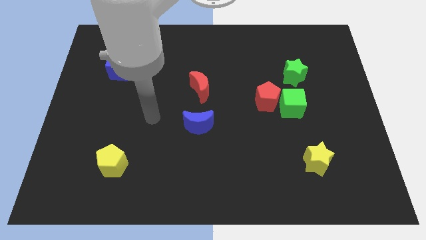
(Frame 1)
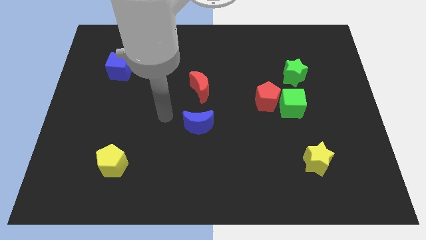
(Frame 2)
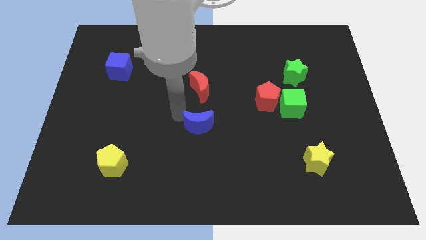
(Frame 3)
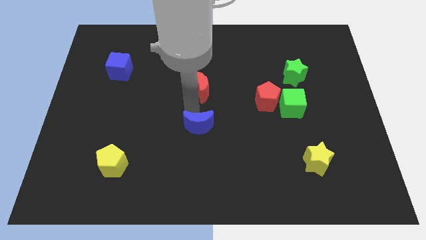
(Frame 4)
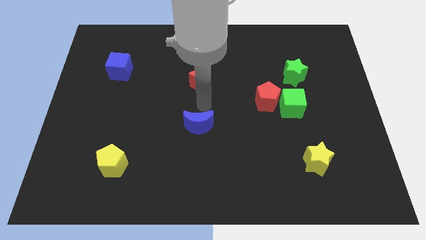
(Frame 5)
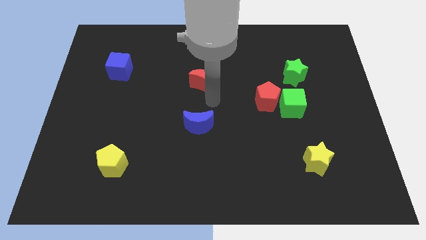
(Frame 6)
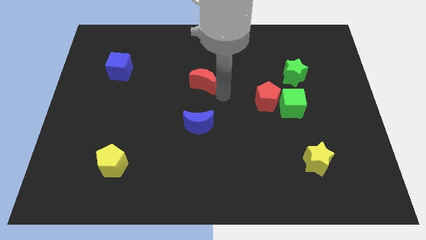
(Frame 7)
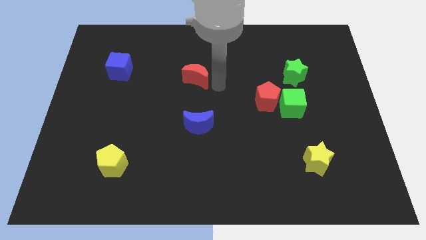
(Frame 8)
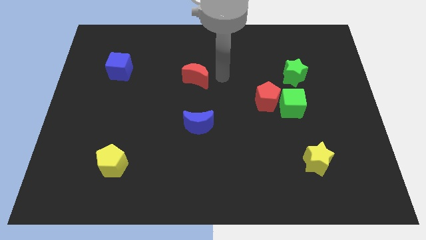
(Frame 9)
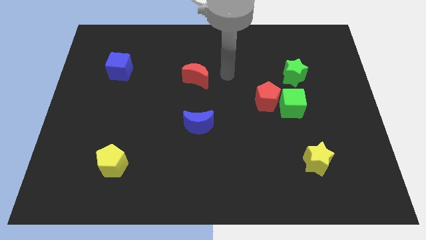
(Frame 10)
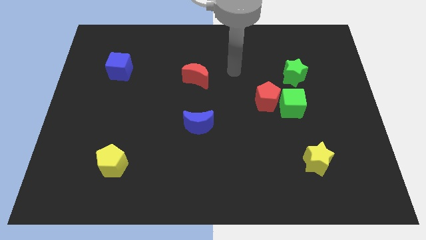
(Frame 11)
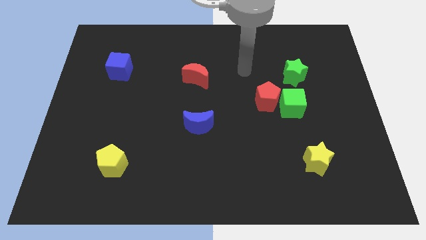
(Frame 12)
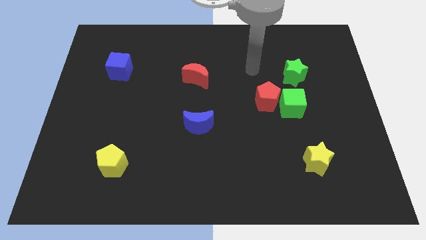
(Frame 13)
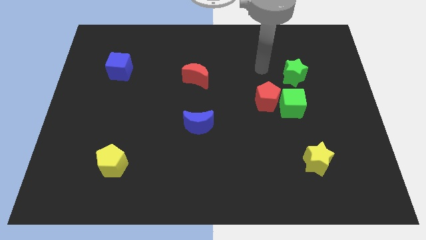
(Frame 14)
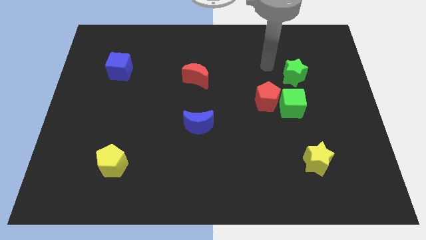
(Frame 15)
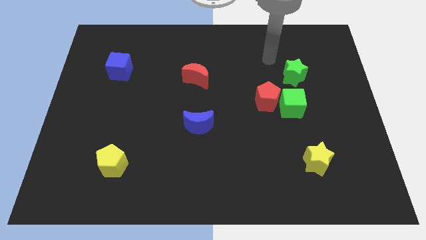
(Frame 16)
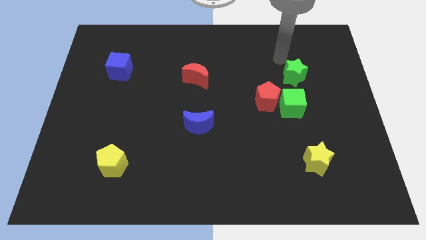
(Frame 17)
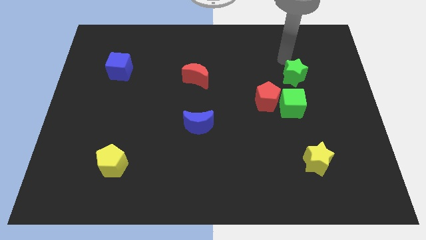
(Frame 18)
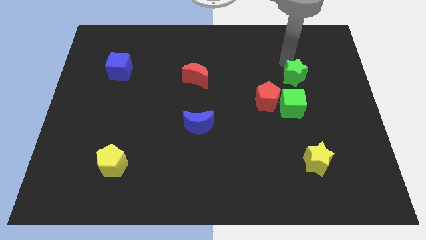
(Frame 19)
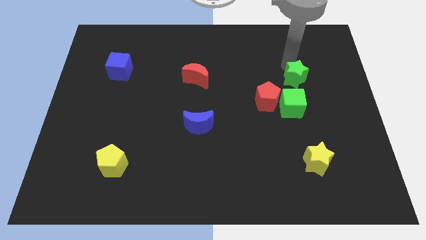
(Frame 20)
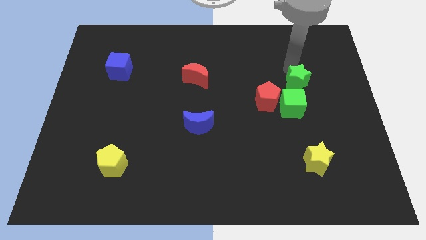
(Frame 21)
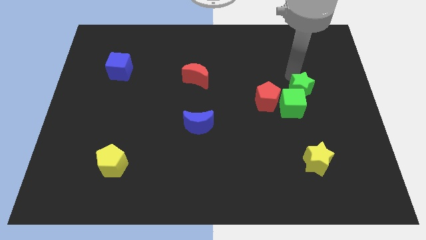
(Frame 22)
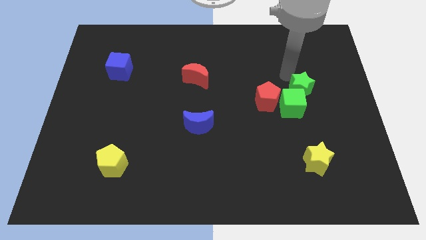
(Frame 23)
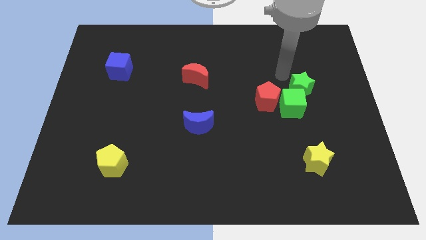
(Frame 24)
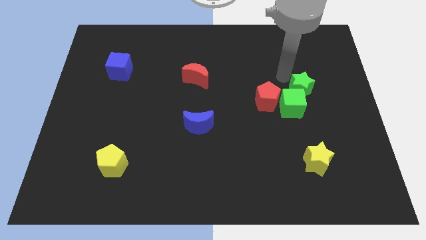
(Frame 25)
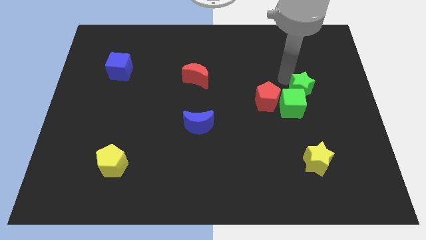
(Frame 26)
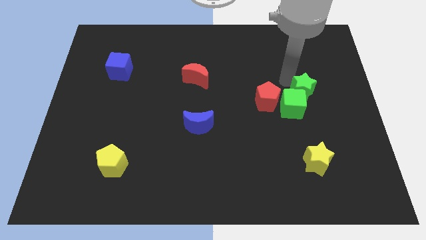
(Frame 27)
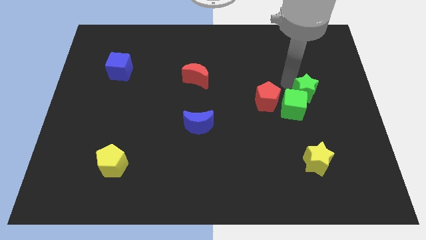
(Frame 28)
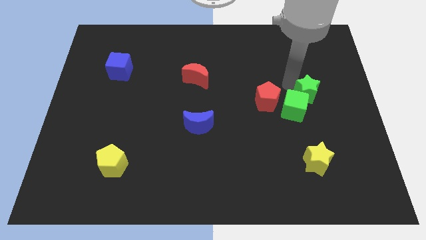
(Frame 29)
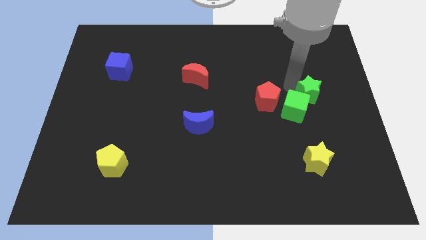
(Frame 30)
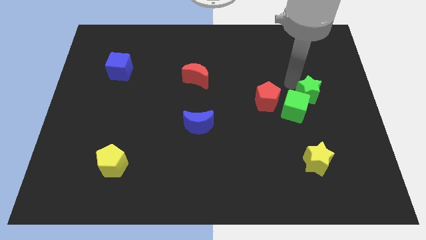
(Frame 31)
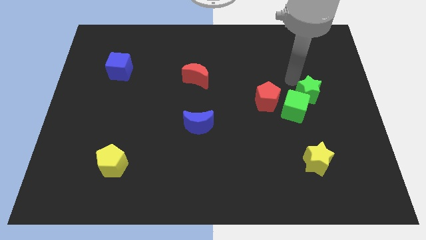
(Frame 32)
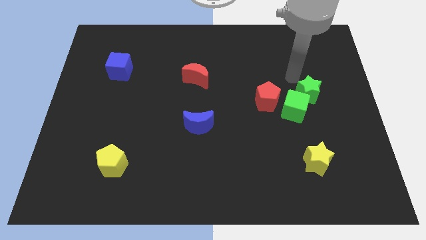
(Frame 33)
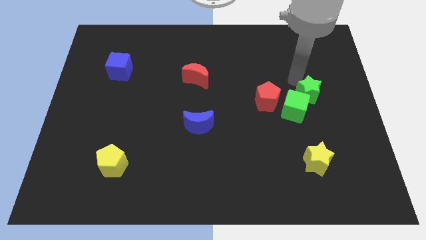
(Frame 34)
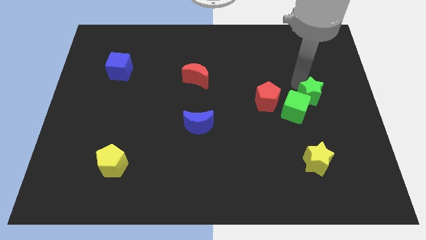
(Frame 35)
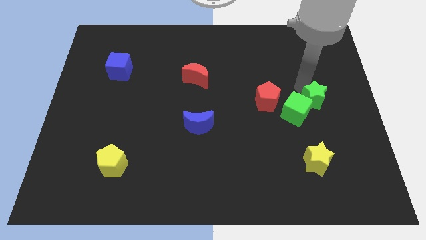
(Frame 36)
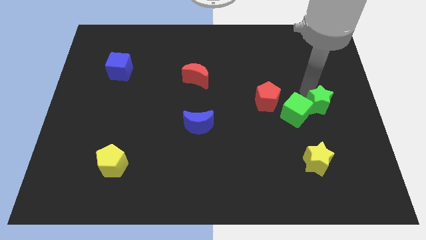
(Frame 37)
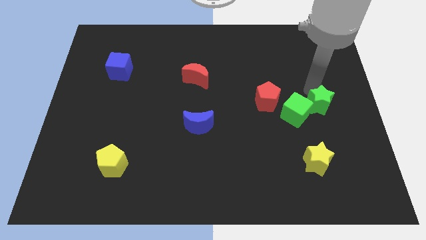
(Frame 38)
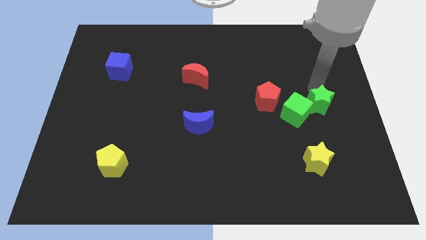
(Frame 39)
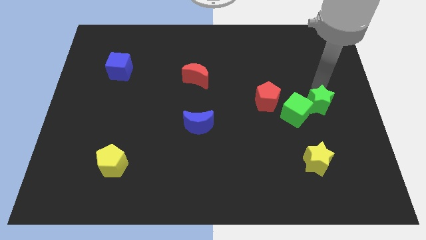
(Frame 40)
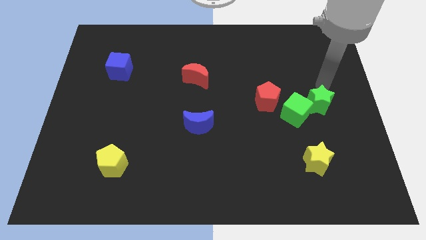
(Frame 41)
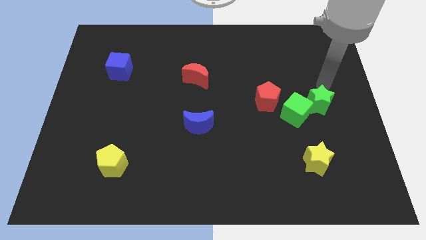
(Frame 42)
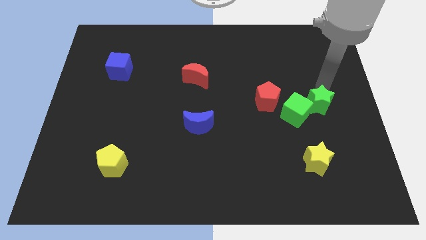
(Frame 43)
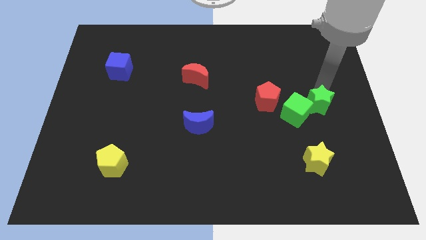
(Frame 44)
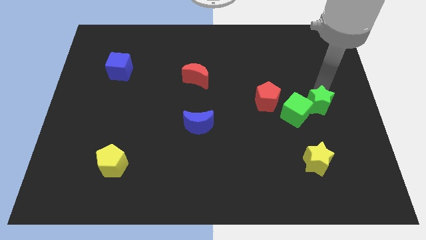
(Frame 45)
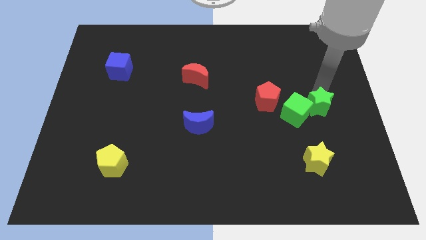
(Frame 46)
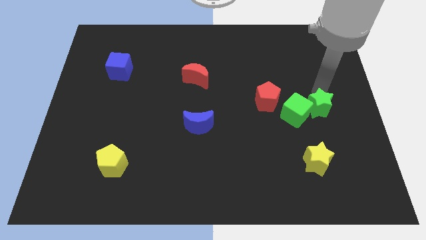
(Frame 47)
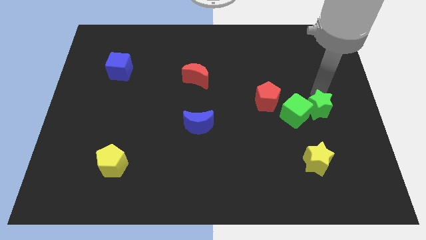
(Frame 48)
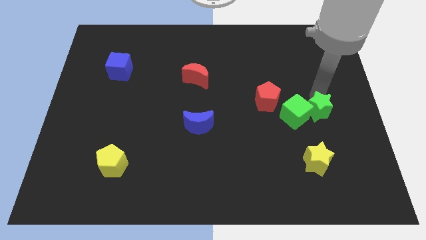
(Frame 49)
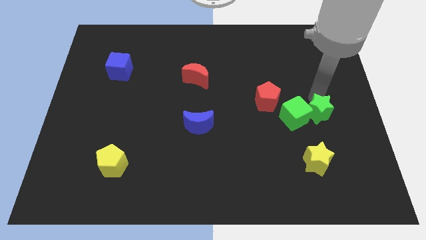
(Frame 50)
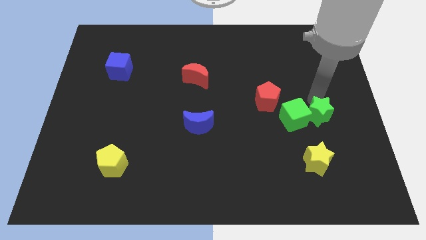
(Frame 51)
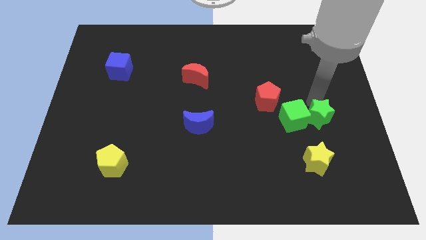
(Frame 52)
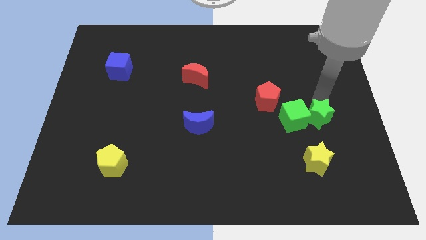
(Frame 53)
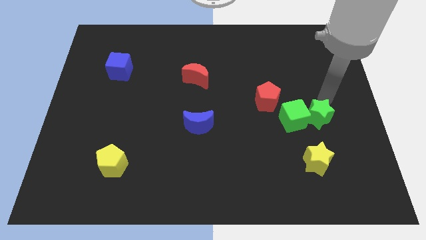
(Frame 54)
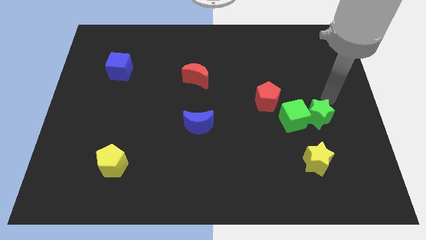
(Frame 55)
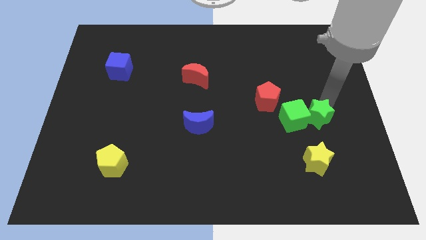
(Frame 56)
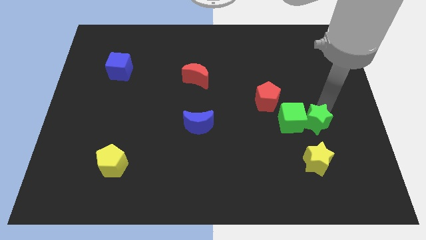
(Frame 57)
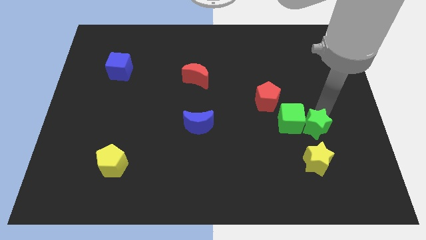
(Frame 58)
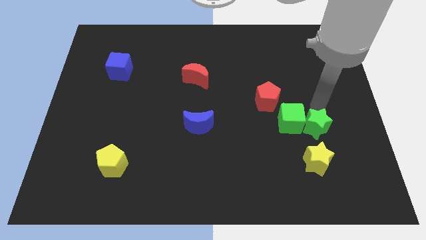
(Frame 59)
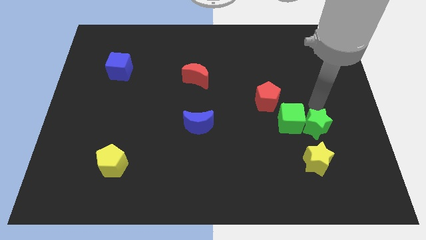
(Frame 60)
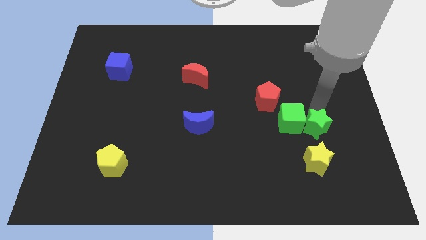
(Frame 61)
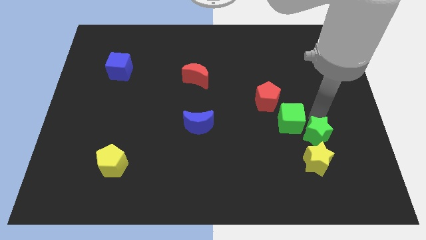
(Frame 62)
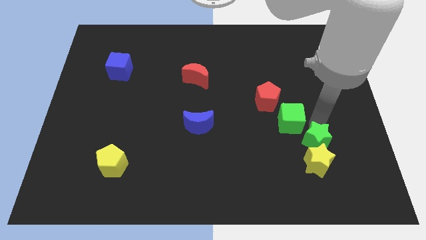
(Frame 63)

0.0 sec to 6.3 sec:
put the green star next to the yellow star

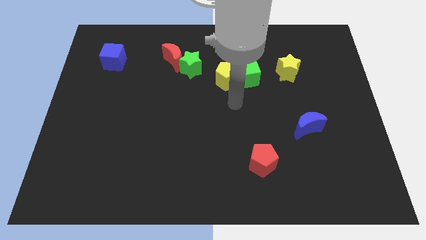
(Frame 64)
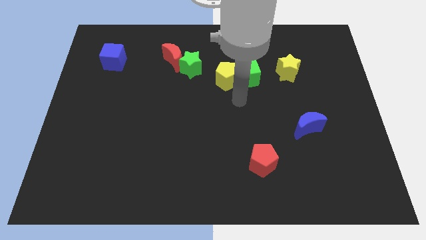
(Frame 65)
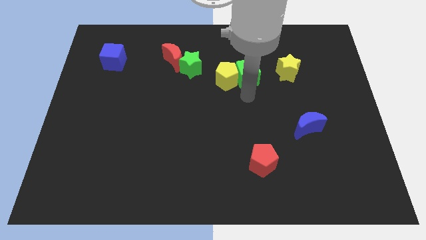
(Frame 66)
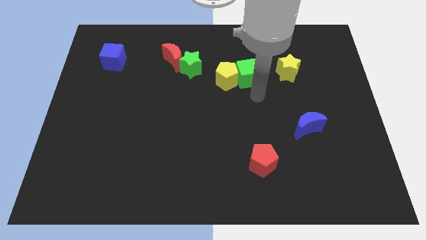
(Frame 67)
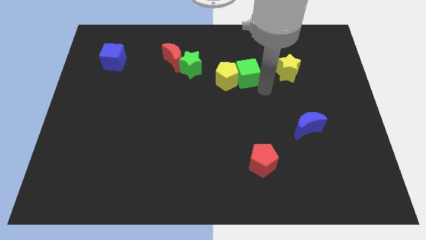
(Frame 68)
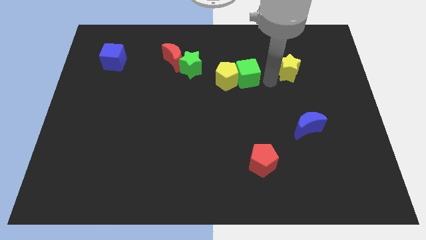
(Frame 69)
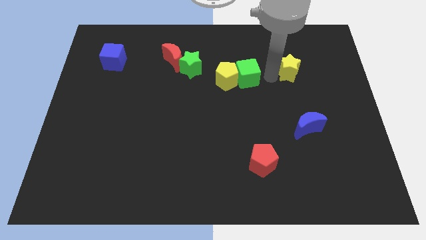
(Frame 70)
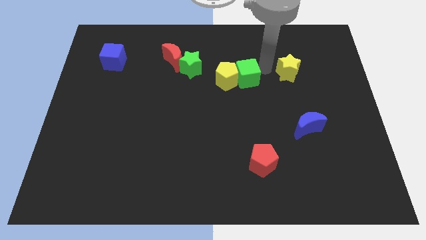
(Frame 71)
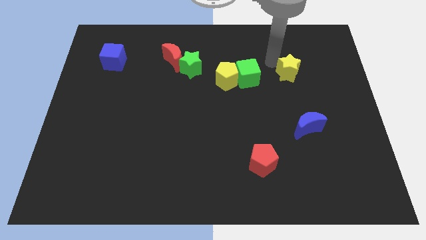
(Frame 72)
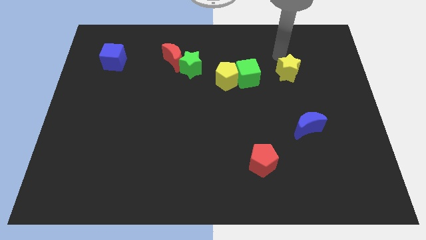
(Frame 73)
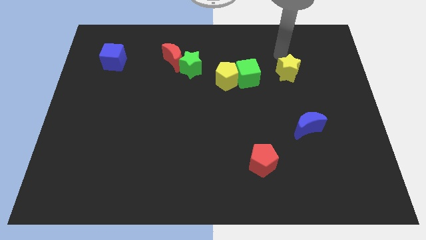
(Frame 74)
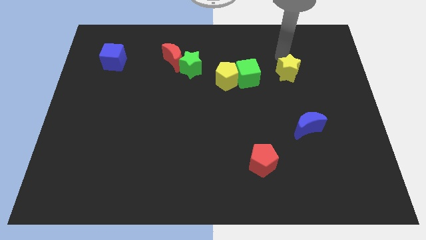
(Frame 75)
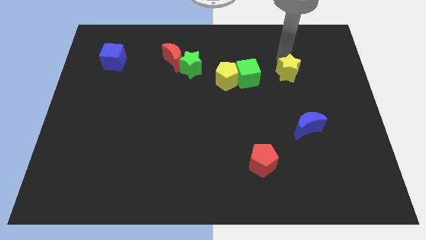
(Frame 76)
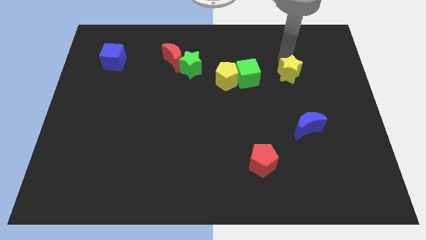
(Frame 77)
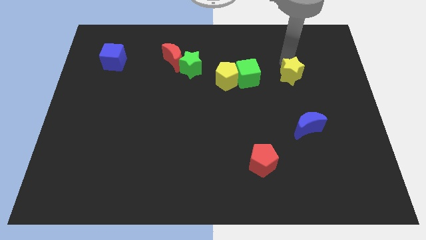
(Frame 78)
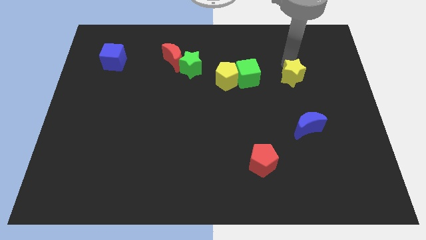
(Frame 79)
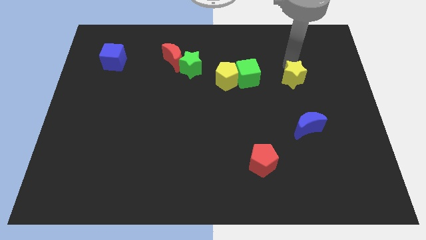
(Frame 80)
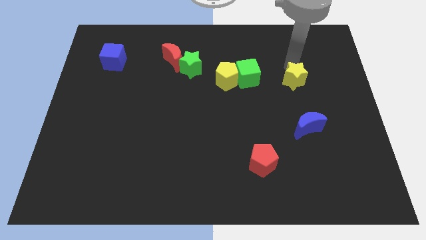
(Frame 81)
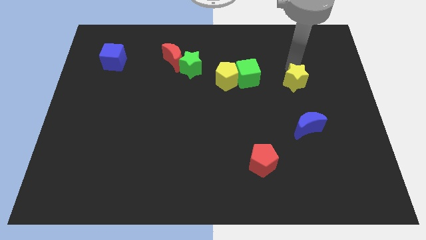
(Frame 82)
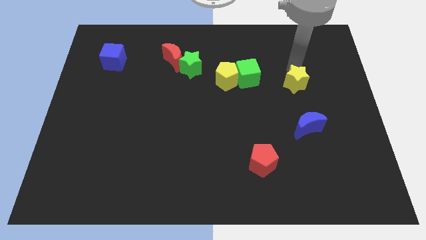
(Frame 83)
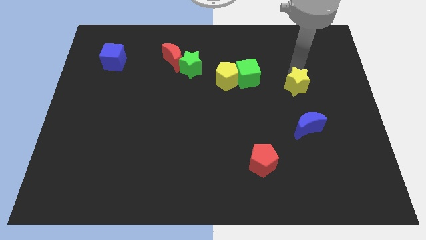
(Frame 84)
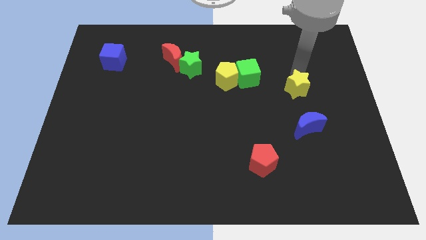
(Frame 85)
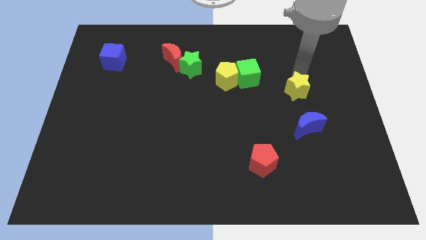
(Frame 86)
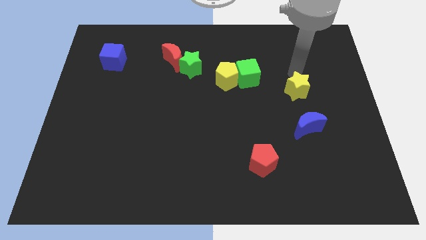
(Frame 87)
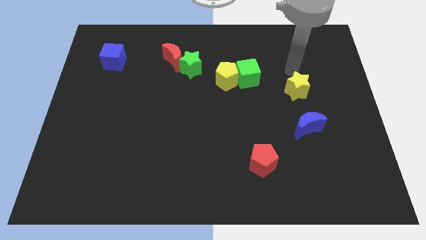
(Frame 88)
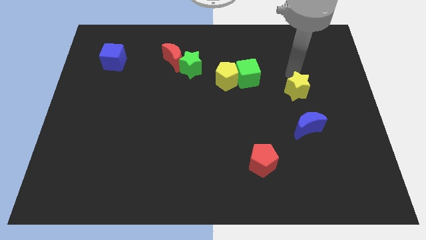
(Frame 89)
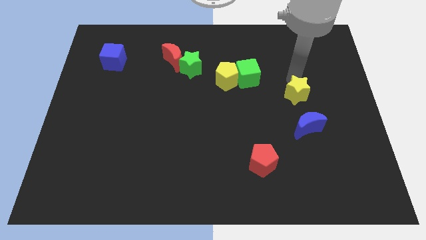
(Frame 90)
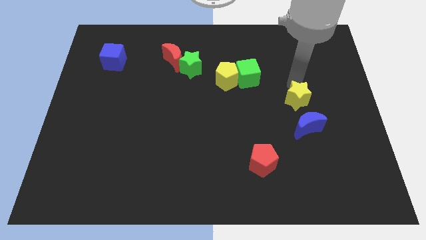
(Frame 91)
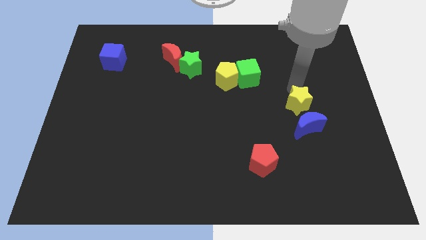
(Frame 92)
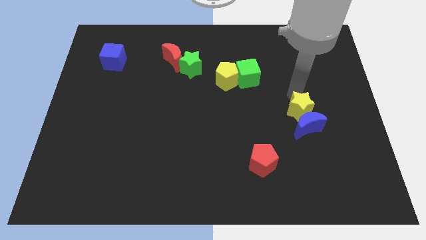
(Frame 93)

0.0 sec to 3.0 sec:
slide the yellow star towards the blue moon
